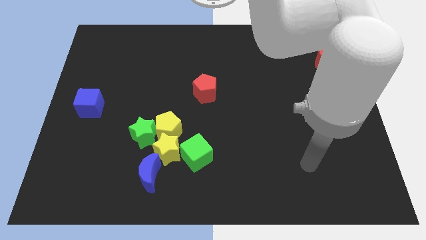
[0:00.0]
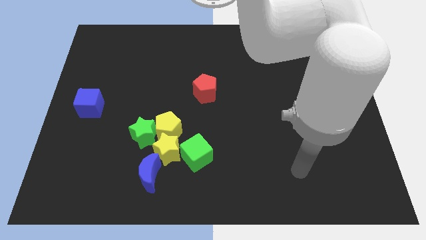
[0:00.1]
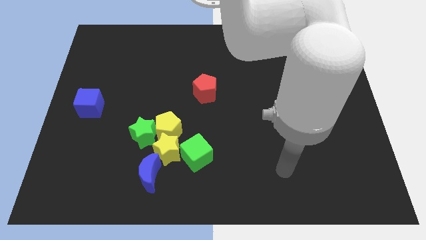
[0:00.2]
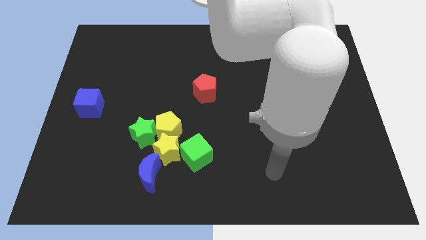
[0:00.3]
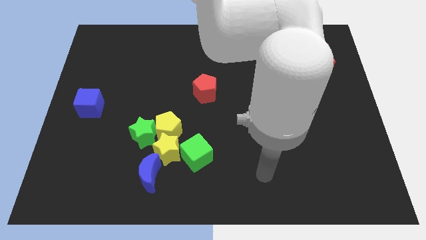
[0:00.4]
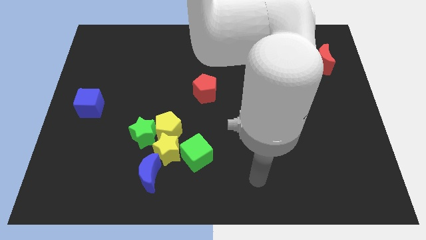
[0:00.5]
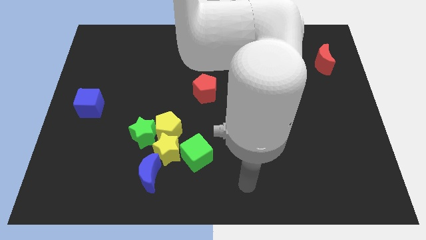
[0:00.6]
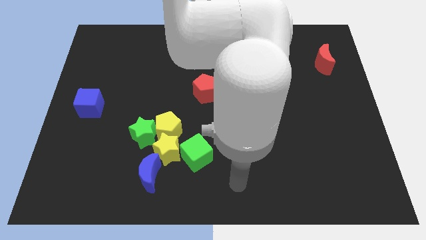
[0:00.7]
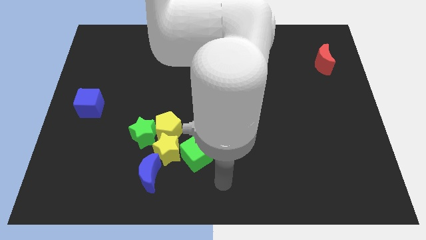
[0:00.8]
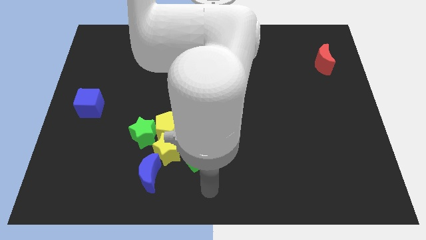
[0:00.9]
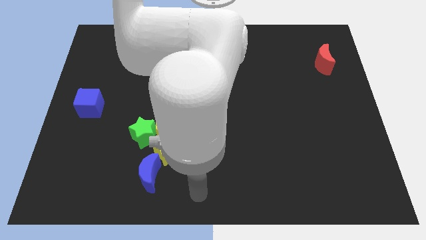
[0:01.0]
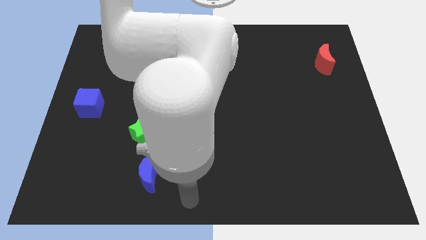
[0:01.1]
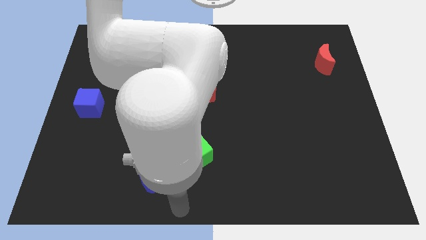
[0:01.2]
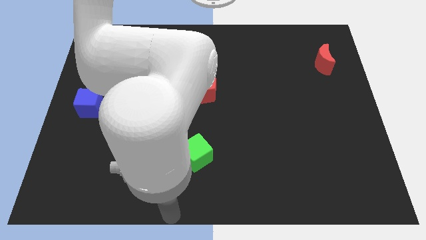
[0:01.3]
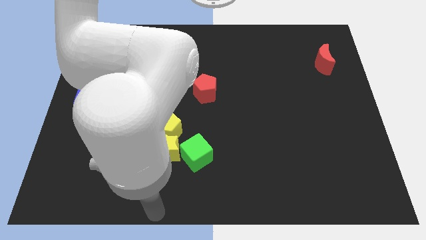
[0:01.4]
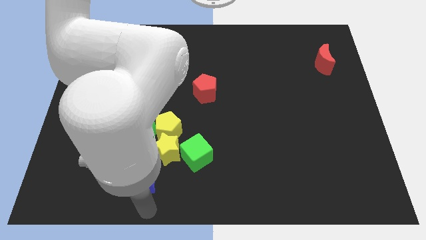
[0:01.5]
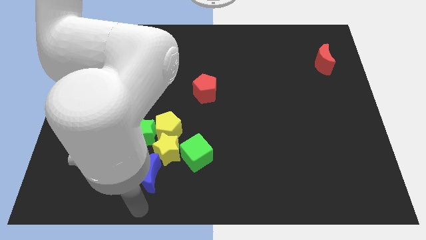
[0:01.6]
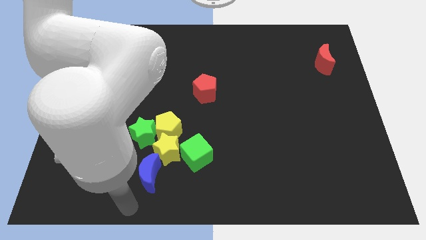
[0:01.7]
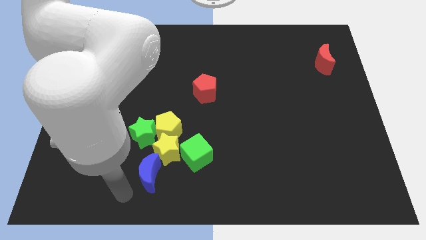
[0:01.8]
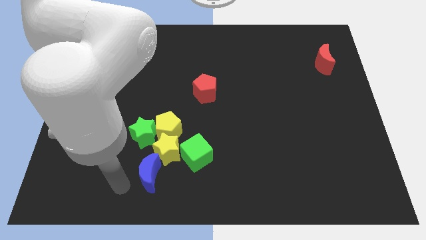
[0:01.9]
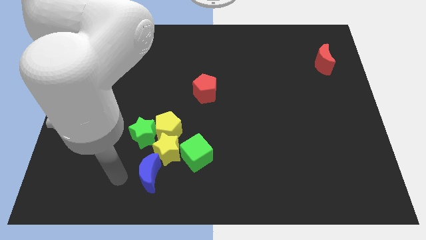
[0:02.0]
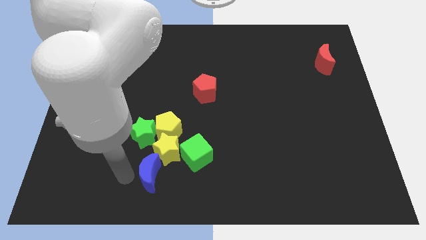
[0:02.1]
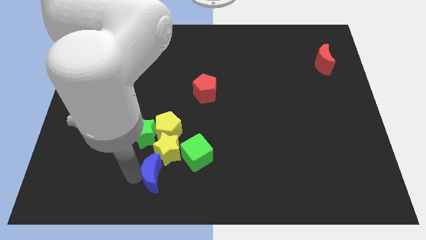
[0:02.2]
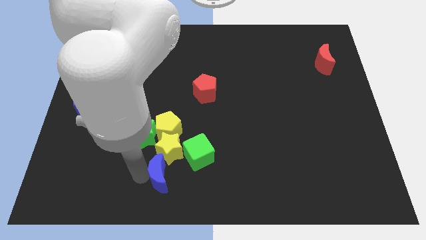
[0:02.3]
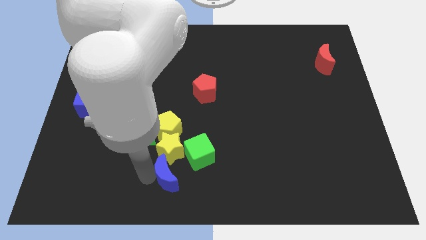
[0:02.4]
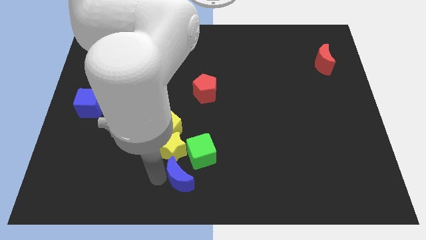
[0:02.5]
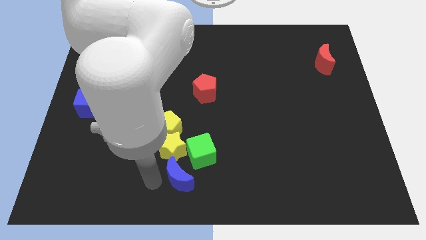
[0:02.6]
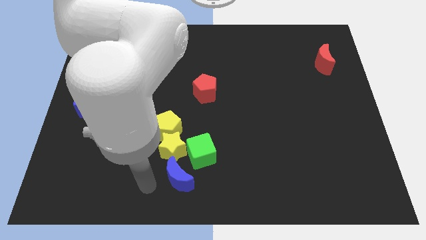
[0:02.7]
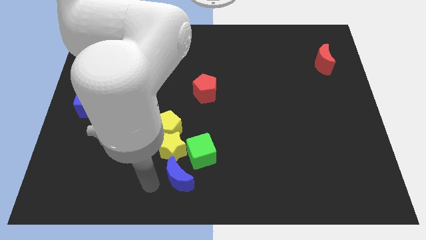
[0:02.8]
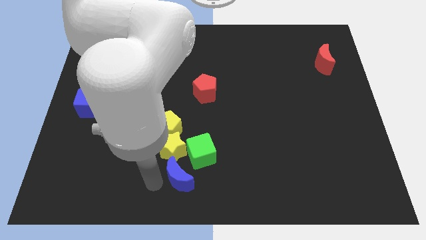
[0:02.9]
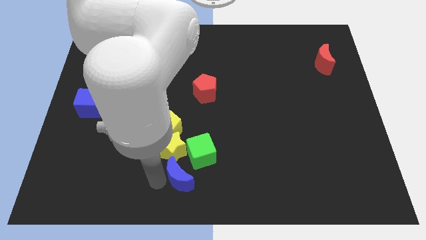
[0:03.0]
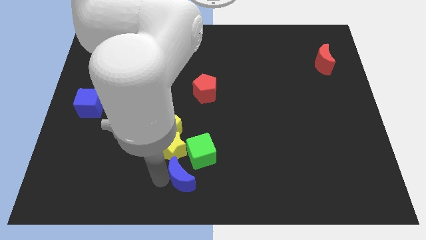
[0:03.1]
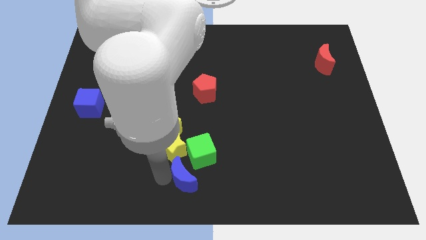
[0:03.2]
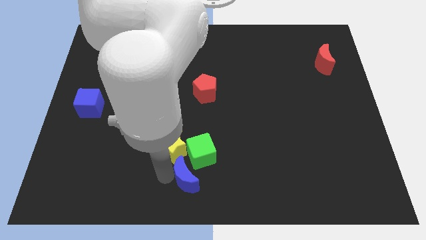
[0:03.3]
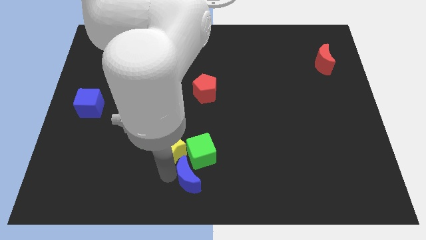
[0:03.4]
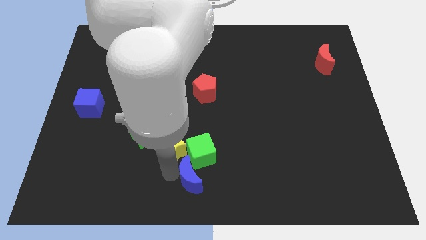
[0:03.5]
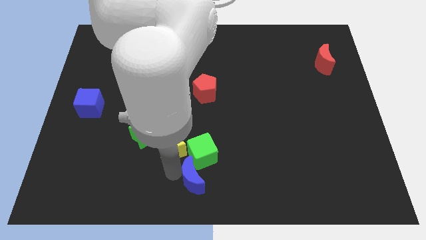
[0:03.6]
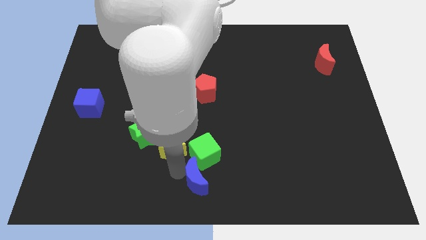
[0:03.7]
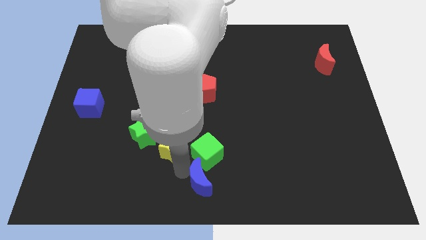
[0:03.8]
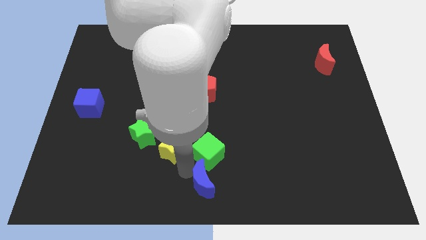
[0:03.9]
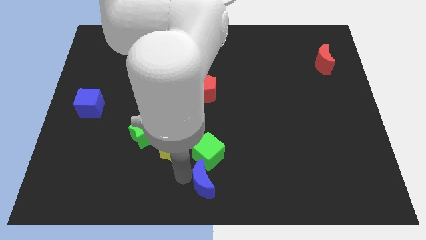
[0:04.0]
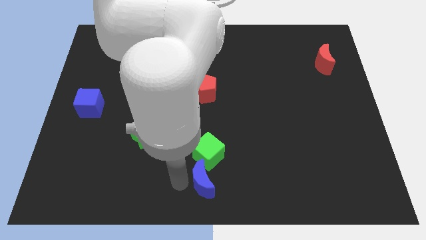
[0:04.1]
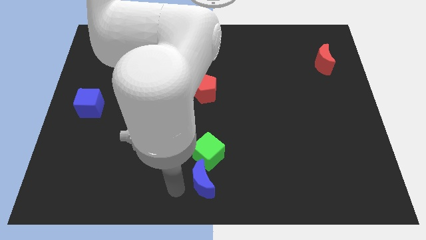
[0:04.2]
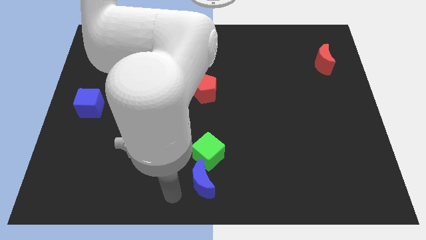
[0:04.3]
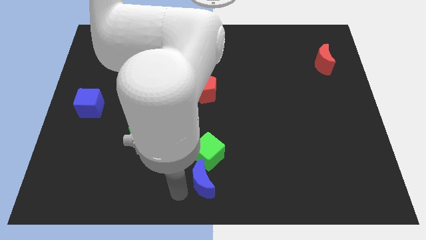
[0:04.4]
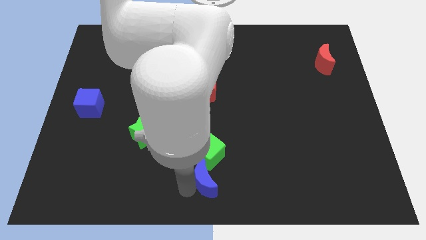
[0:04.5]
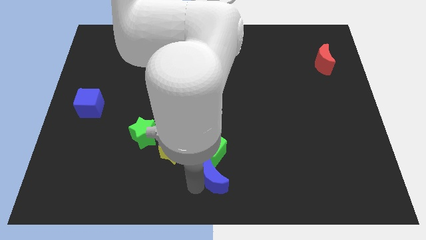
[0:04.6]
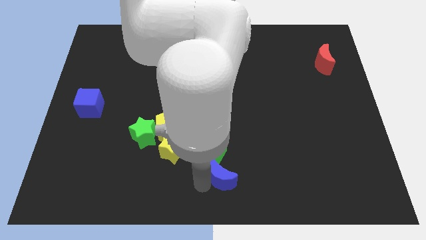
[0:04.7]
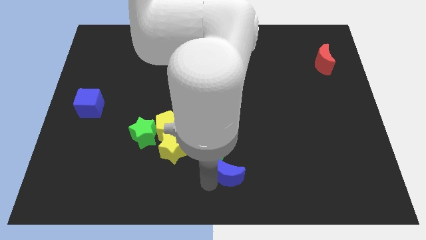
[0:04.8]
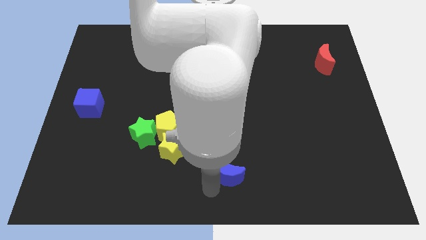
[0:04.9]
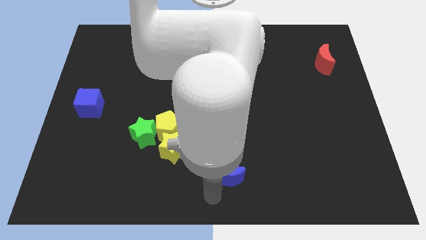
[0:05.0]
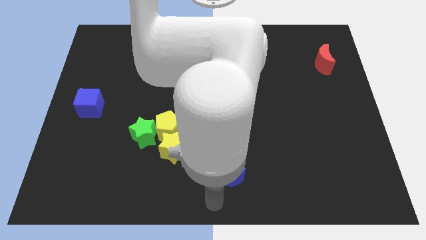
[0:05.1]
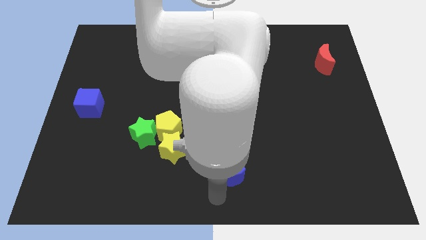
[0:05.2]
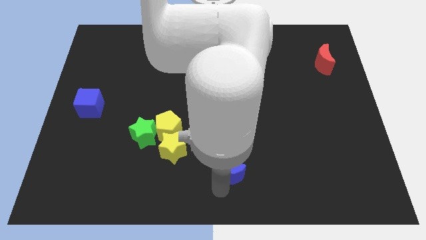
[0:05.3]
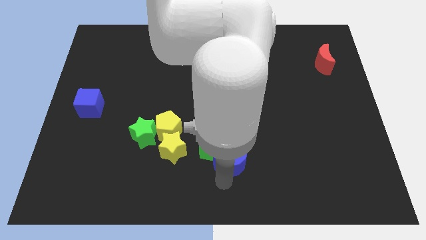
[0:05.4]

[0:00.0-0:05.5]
push the blue moon up and to the right slightly

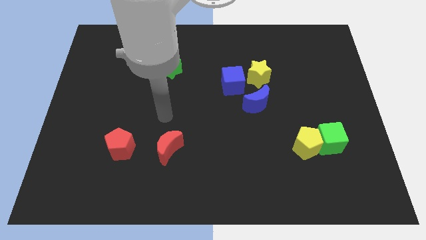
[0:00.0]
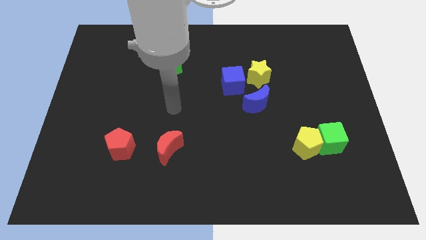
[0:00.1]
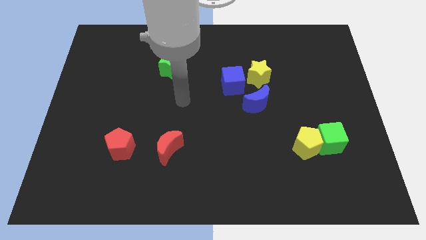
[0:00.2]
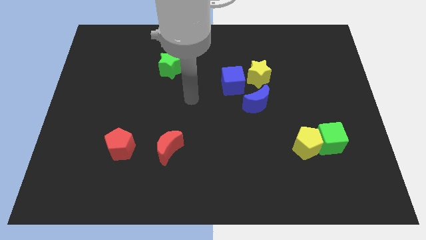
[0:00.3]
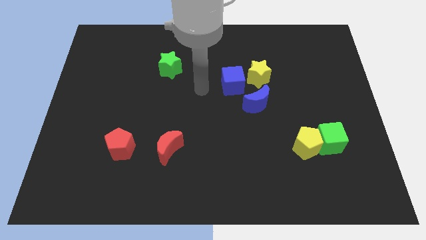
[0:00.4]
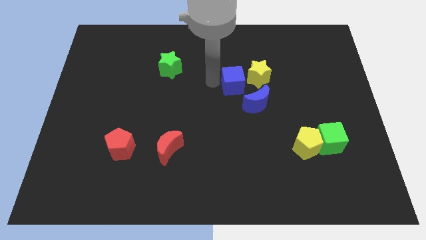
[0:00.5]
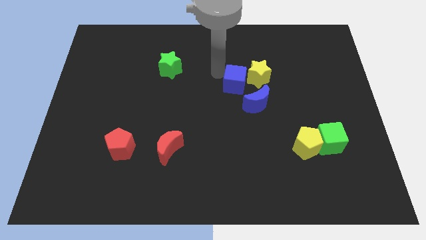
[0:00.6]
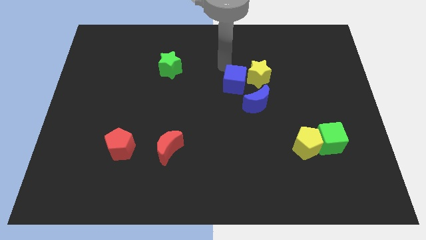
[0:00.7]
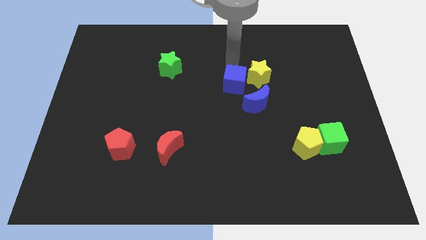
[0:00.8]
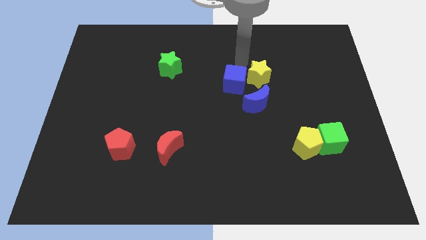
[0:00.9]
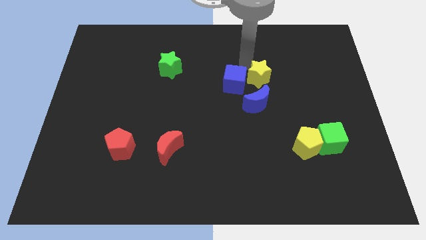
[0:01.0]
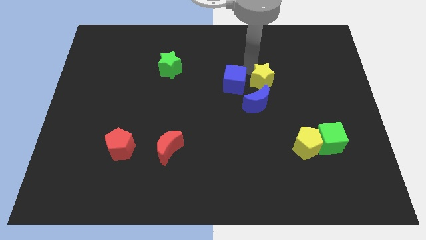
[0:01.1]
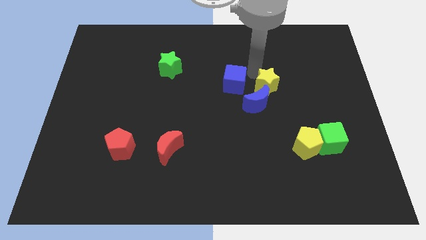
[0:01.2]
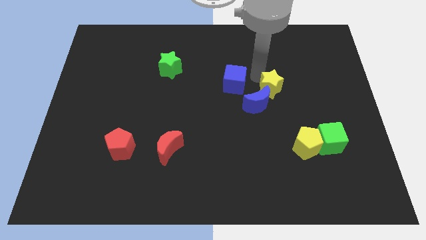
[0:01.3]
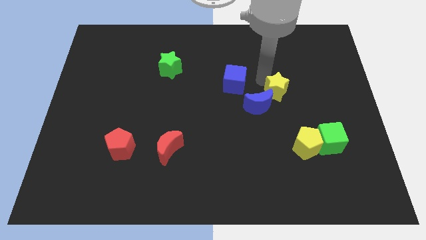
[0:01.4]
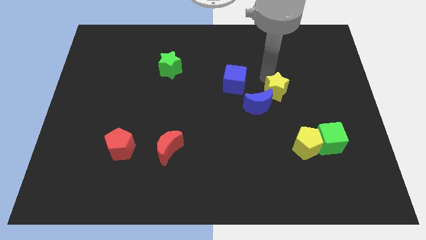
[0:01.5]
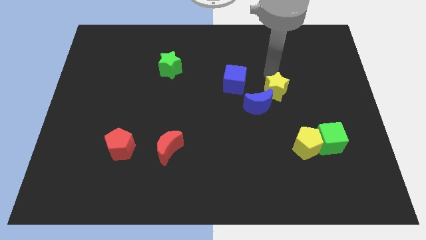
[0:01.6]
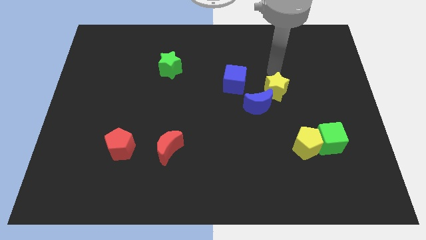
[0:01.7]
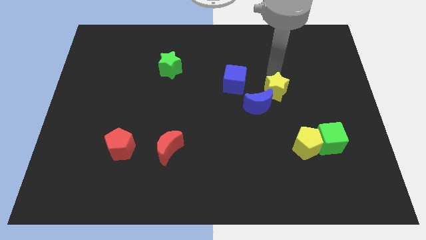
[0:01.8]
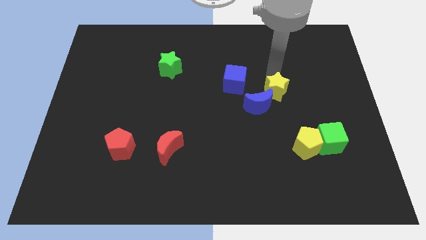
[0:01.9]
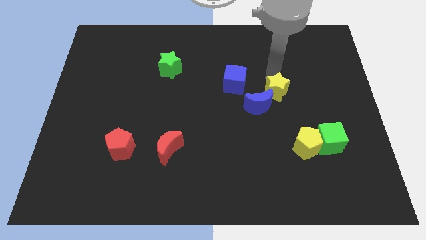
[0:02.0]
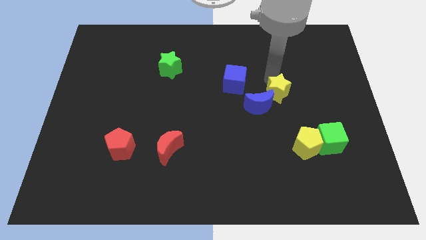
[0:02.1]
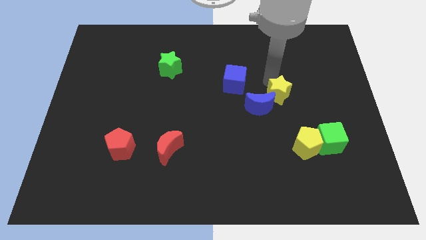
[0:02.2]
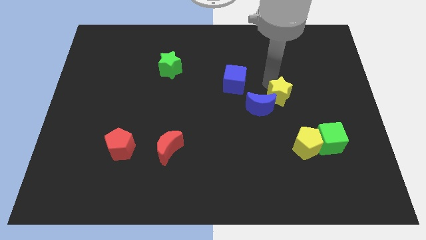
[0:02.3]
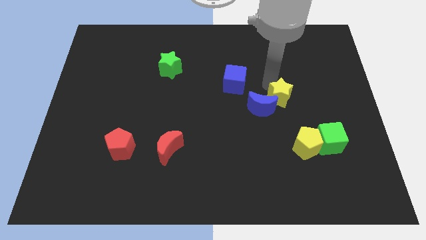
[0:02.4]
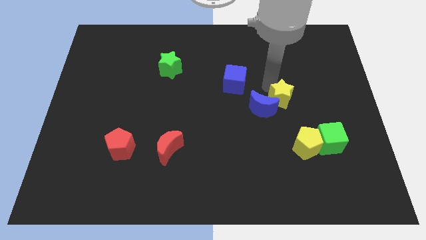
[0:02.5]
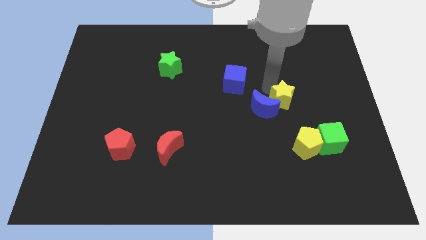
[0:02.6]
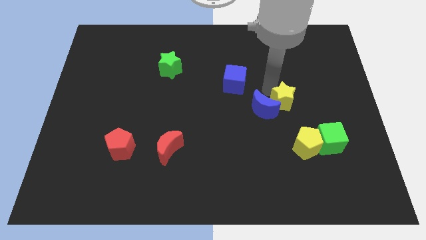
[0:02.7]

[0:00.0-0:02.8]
move the yellow star a little bit down
